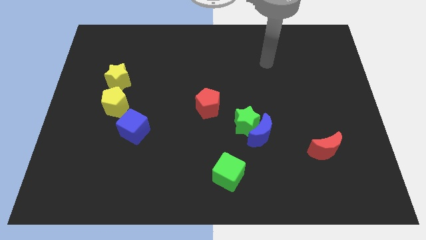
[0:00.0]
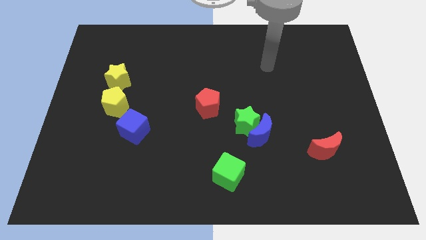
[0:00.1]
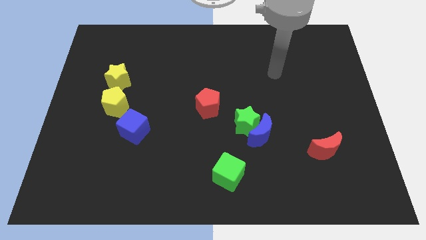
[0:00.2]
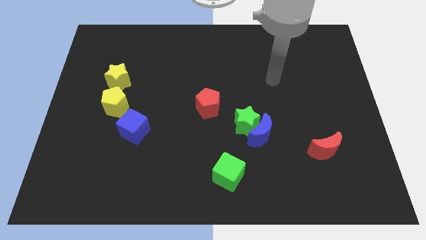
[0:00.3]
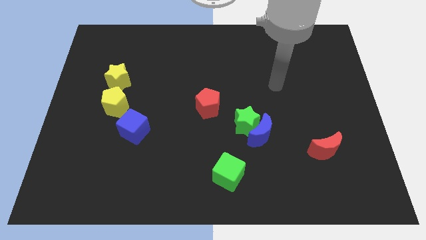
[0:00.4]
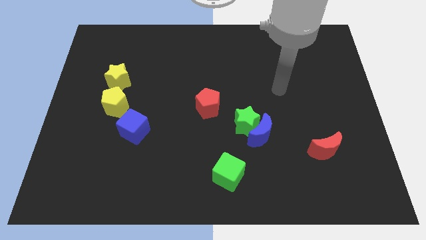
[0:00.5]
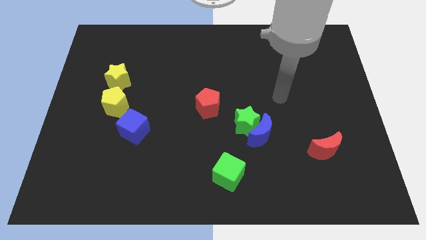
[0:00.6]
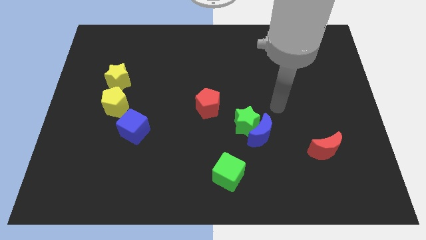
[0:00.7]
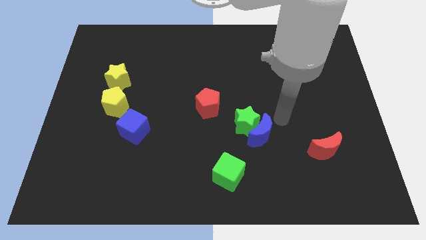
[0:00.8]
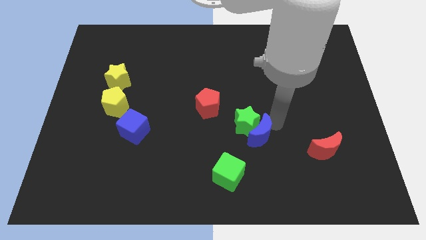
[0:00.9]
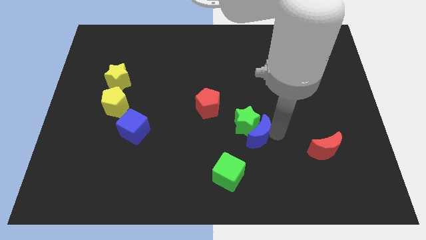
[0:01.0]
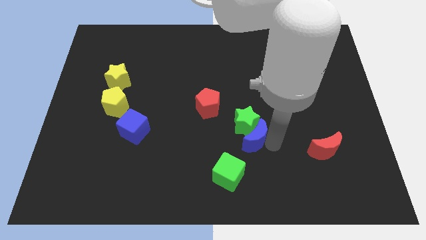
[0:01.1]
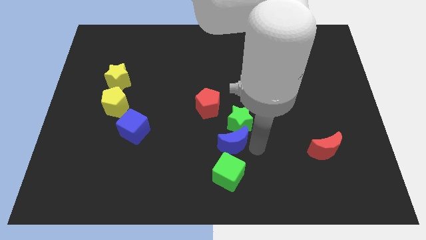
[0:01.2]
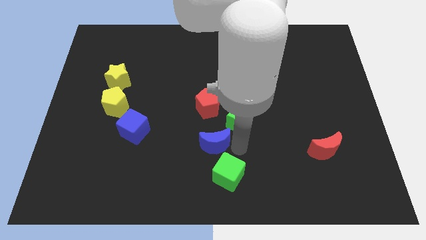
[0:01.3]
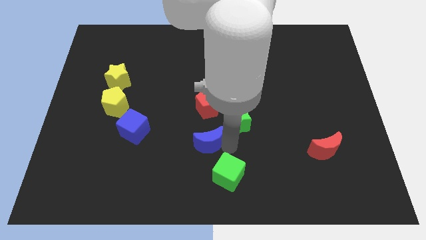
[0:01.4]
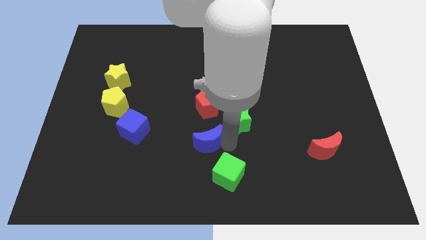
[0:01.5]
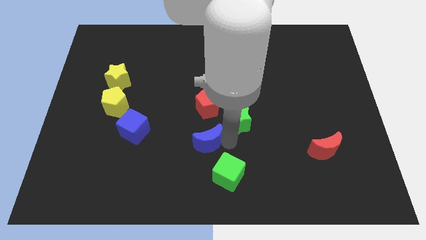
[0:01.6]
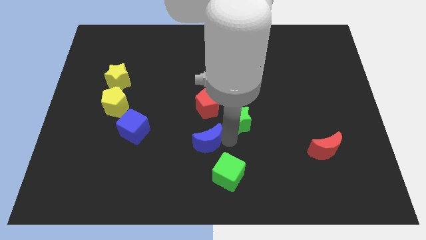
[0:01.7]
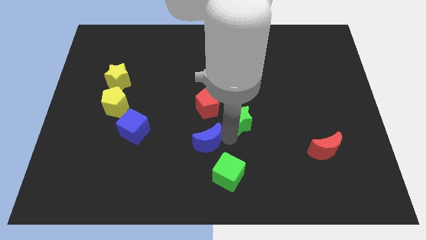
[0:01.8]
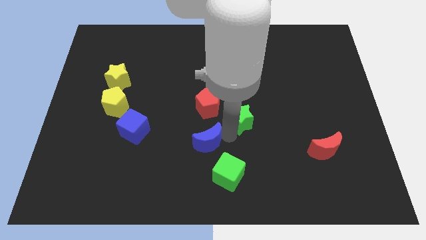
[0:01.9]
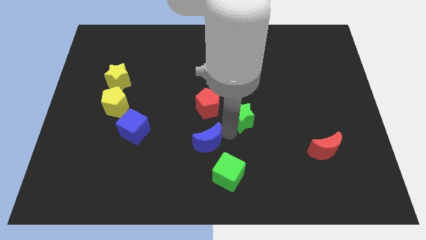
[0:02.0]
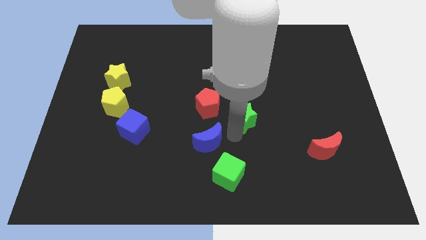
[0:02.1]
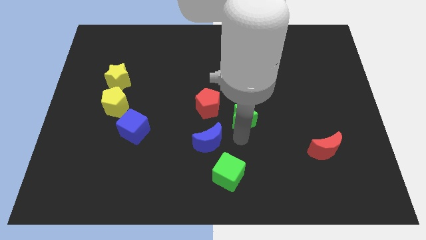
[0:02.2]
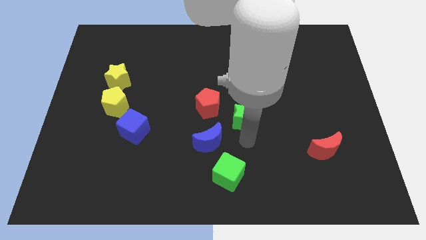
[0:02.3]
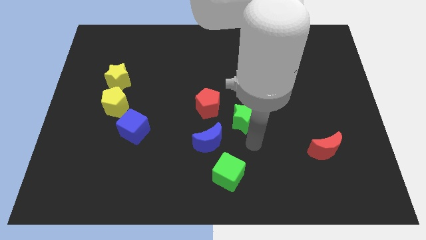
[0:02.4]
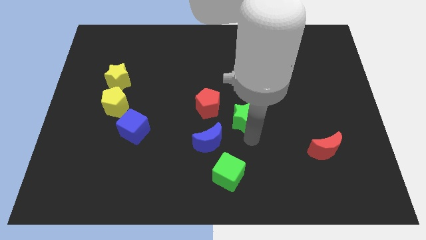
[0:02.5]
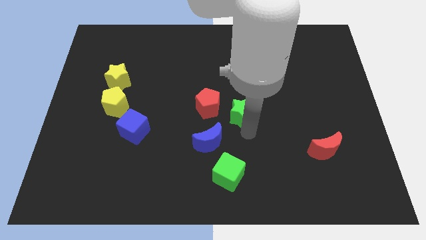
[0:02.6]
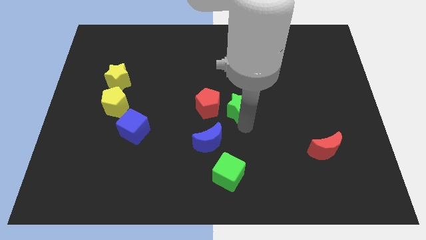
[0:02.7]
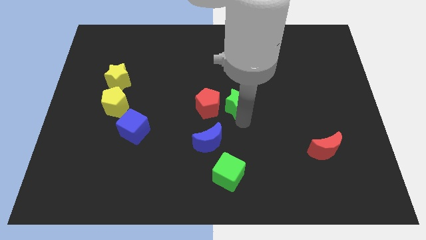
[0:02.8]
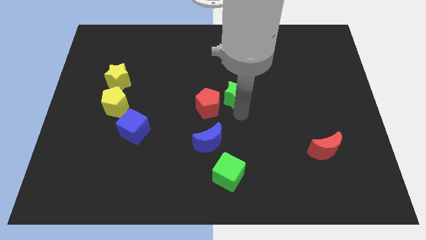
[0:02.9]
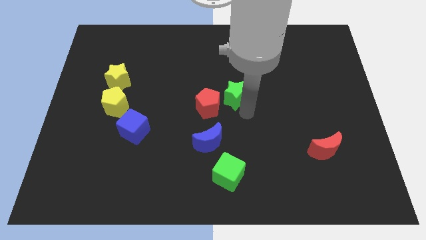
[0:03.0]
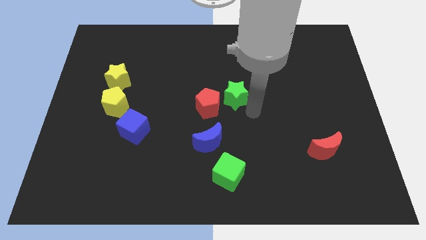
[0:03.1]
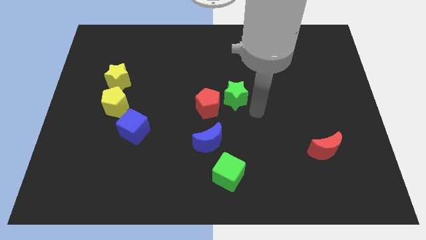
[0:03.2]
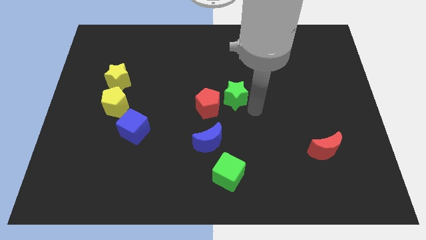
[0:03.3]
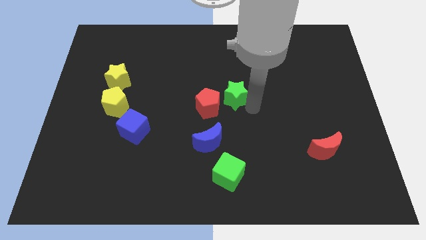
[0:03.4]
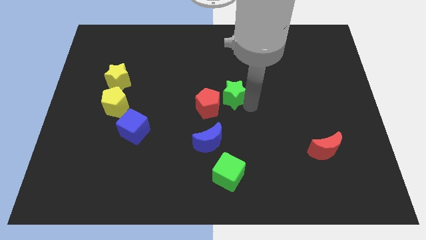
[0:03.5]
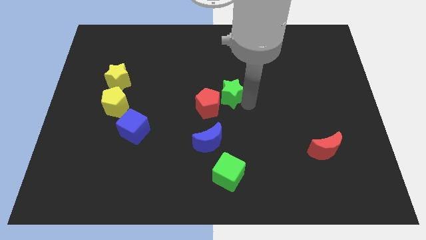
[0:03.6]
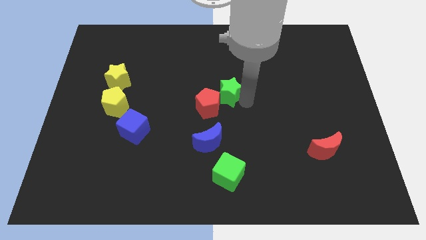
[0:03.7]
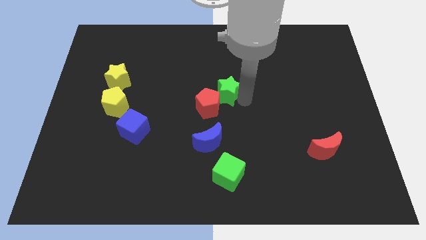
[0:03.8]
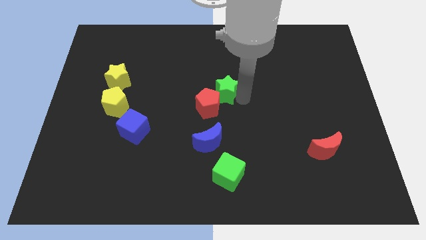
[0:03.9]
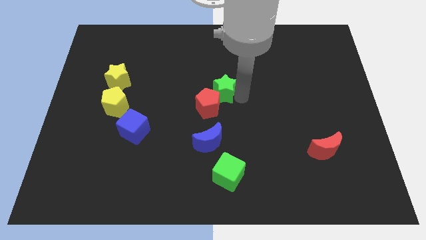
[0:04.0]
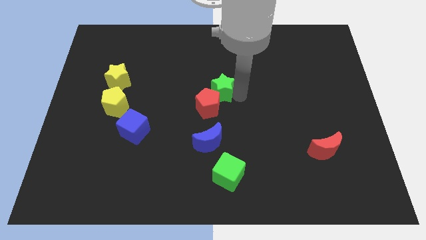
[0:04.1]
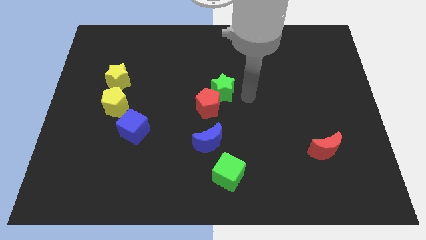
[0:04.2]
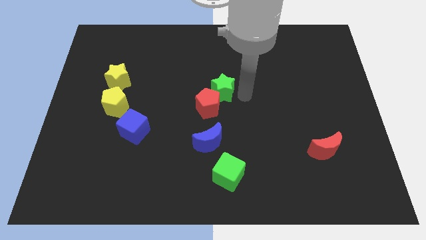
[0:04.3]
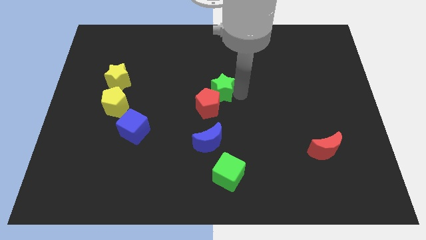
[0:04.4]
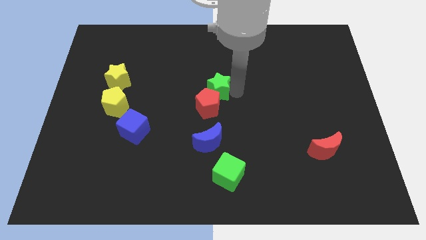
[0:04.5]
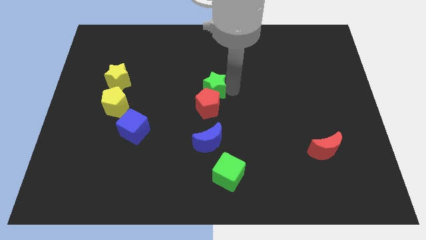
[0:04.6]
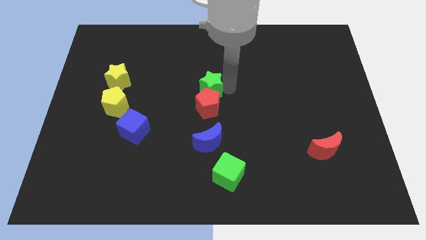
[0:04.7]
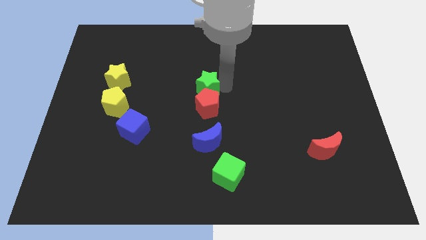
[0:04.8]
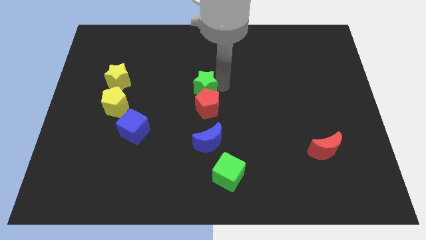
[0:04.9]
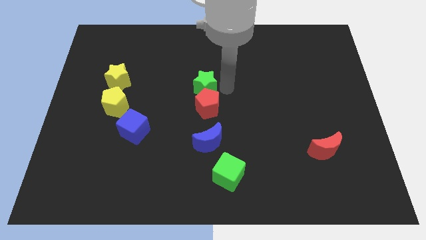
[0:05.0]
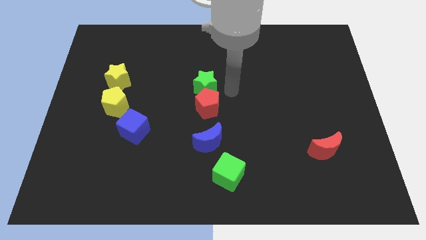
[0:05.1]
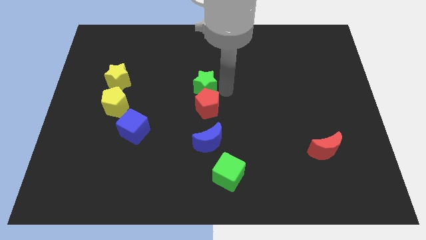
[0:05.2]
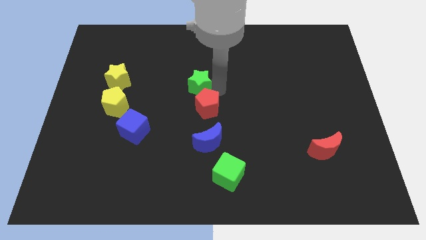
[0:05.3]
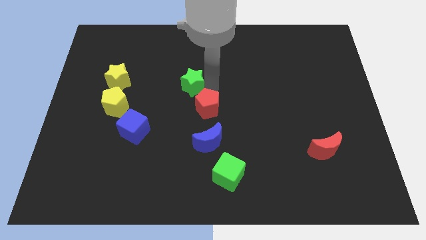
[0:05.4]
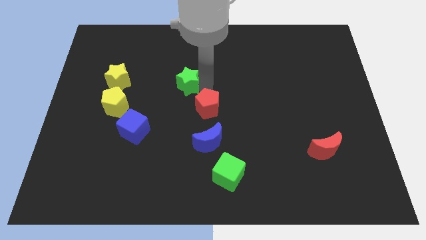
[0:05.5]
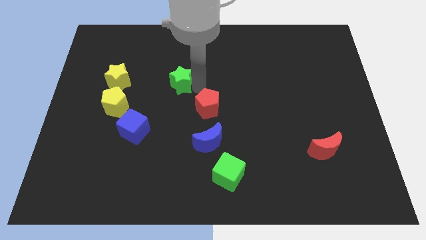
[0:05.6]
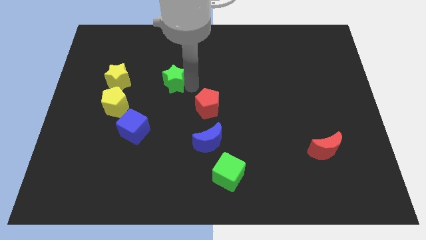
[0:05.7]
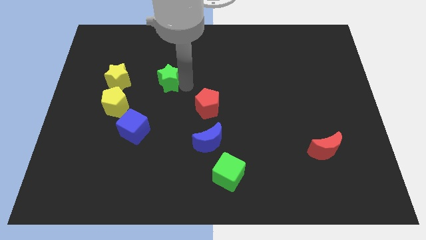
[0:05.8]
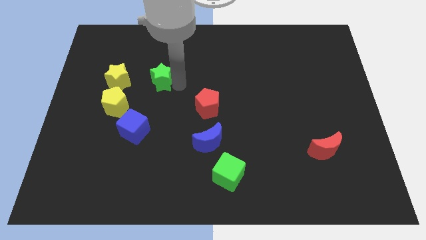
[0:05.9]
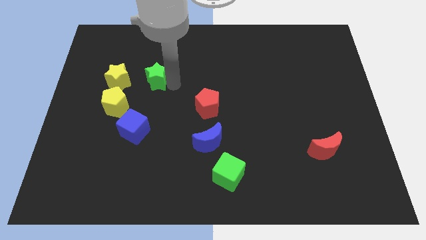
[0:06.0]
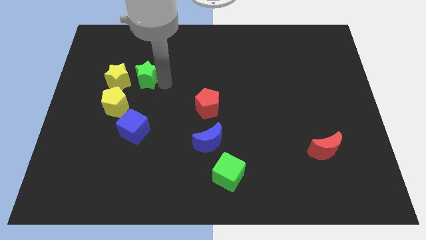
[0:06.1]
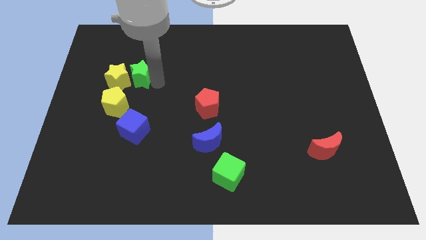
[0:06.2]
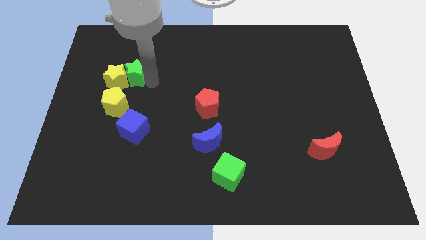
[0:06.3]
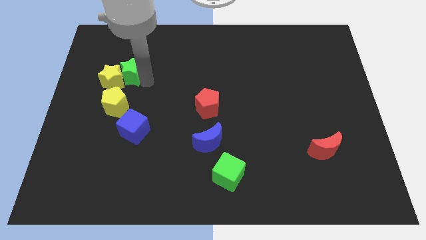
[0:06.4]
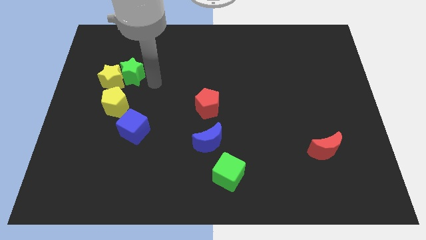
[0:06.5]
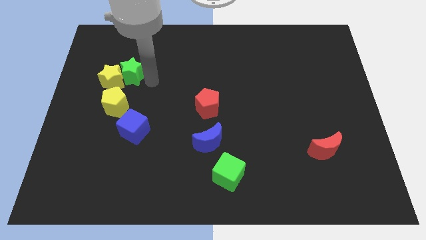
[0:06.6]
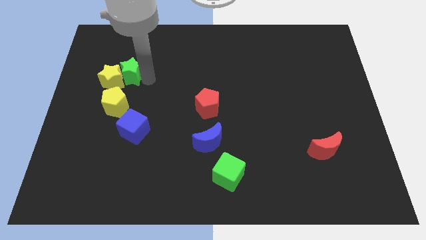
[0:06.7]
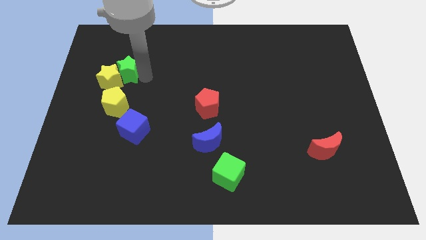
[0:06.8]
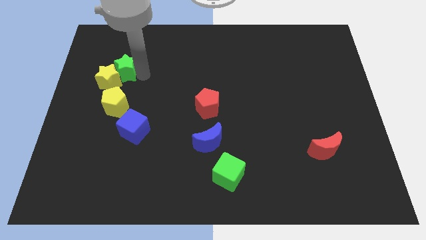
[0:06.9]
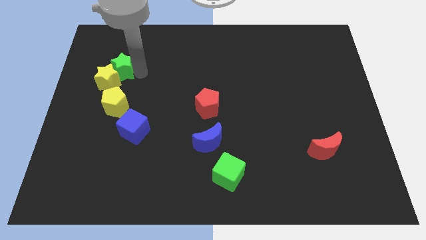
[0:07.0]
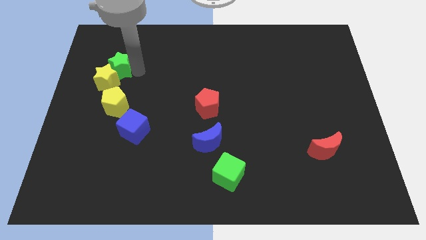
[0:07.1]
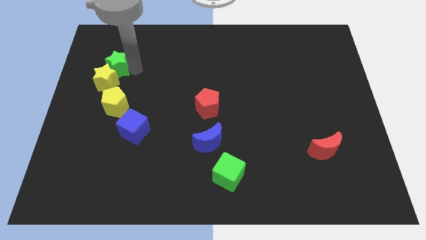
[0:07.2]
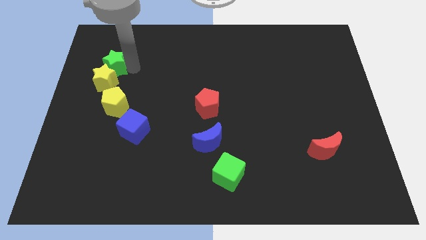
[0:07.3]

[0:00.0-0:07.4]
push the green star to the top left side of the yellow star
